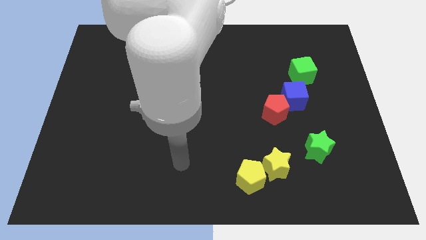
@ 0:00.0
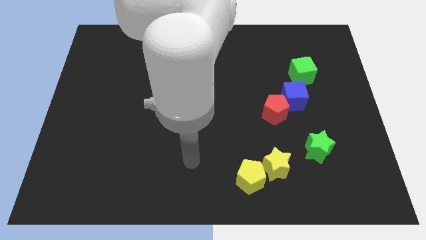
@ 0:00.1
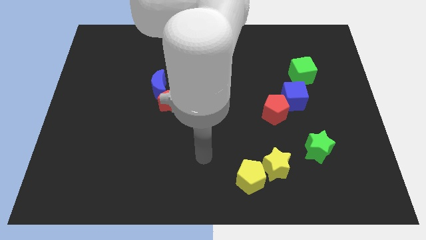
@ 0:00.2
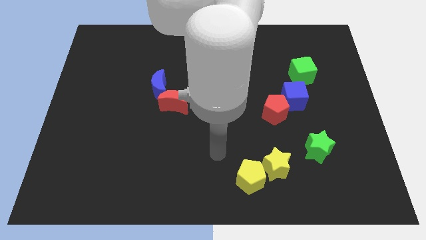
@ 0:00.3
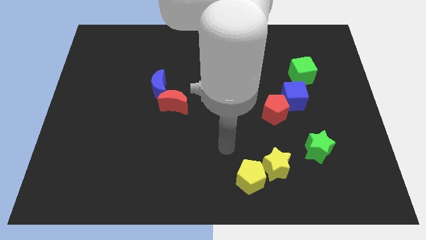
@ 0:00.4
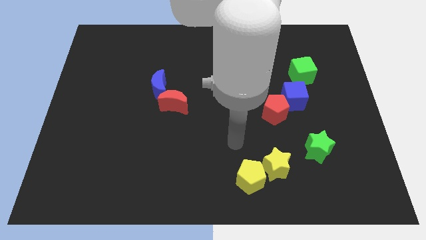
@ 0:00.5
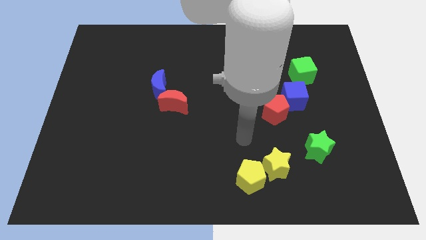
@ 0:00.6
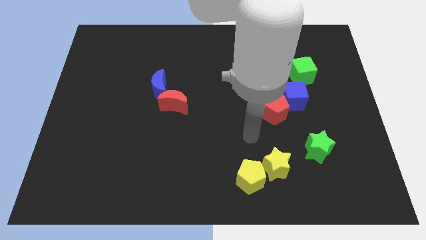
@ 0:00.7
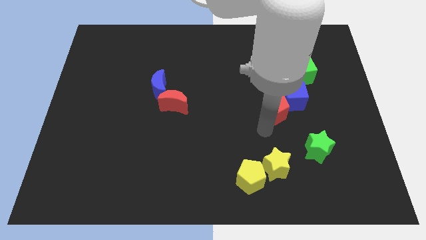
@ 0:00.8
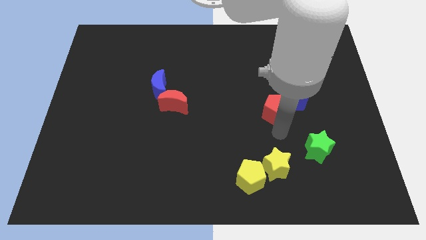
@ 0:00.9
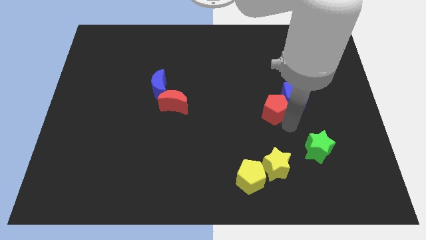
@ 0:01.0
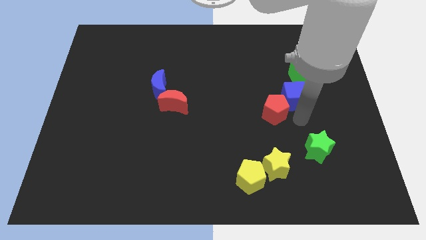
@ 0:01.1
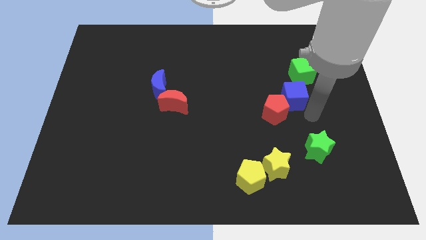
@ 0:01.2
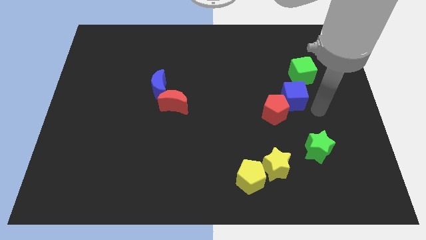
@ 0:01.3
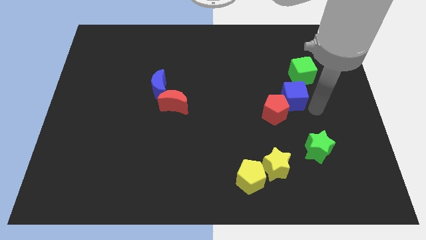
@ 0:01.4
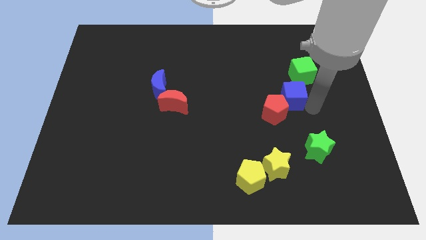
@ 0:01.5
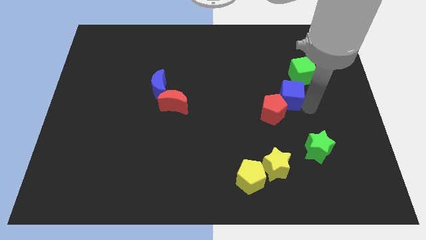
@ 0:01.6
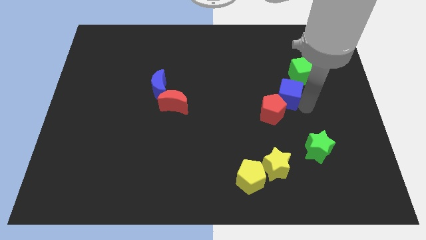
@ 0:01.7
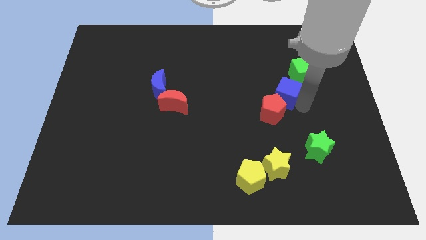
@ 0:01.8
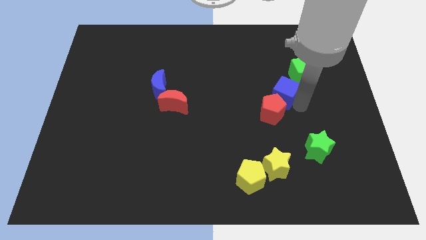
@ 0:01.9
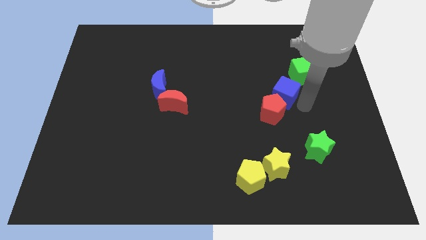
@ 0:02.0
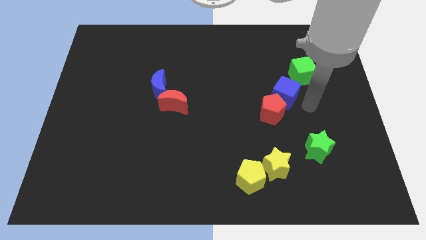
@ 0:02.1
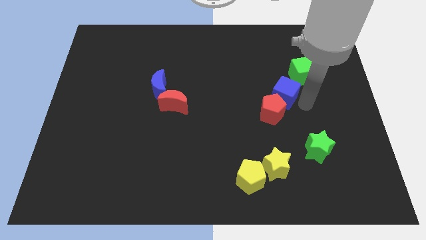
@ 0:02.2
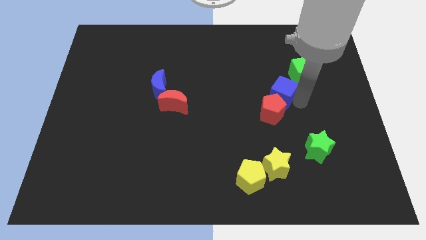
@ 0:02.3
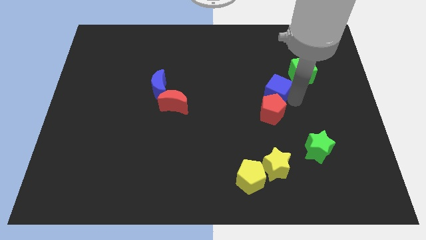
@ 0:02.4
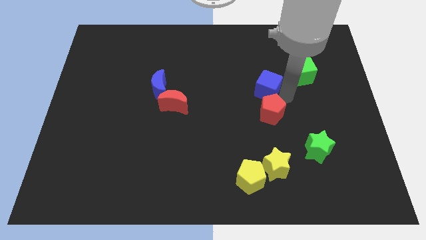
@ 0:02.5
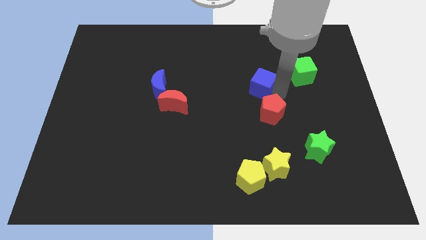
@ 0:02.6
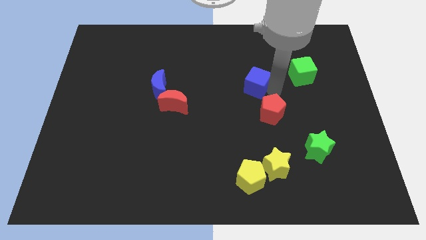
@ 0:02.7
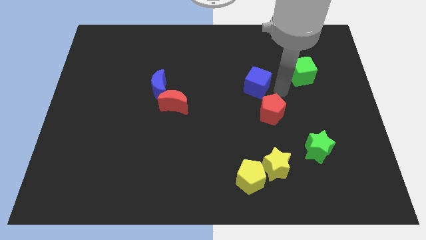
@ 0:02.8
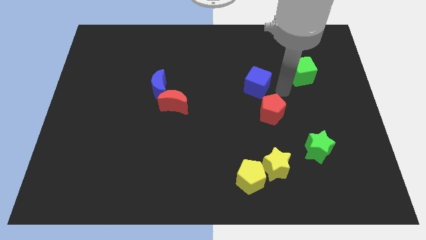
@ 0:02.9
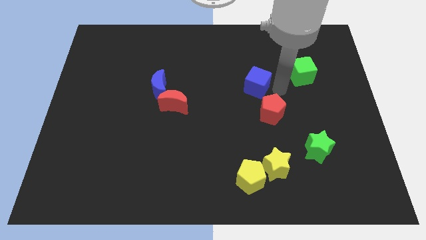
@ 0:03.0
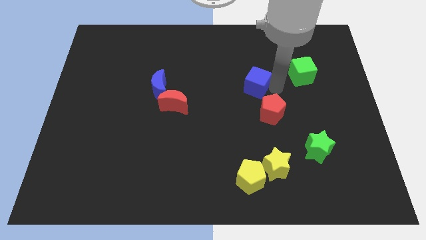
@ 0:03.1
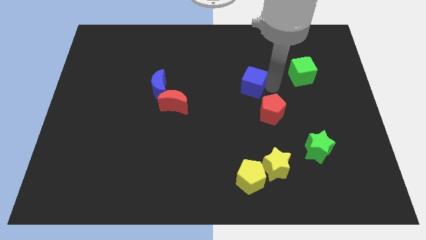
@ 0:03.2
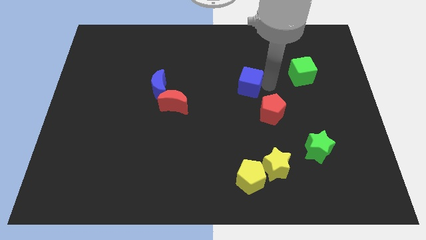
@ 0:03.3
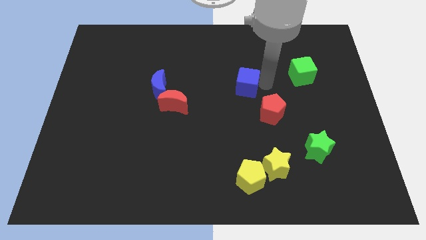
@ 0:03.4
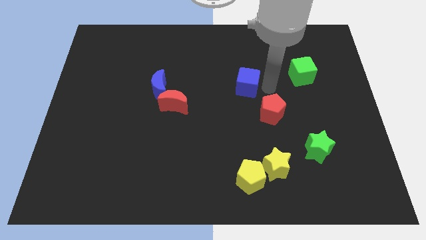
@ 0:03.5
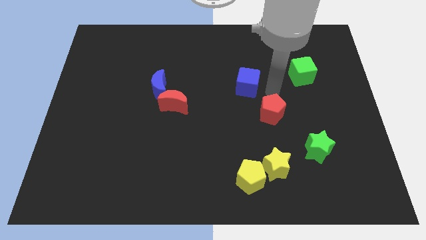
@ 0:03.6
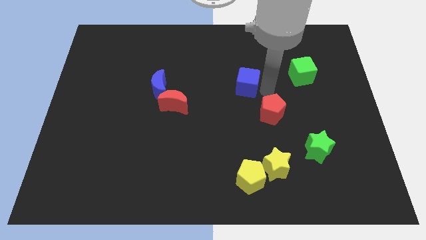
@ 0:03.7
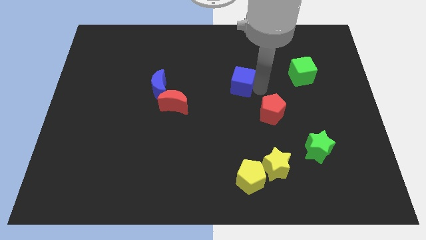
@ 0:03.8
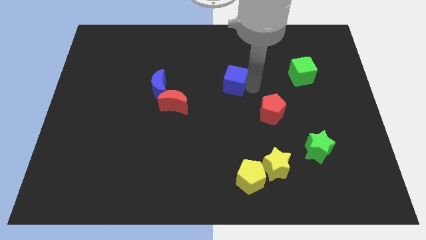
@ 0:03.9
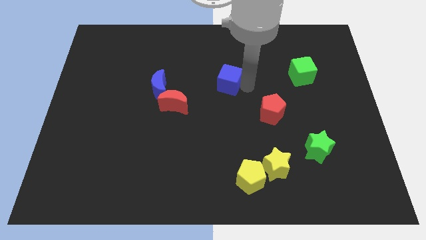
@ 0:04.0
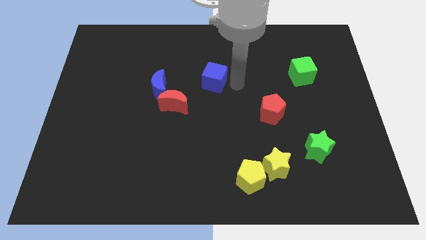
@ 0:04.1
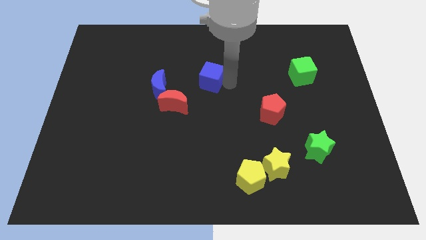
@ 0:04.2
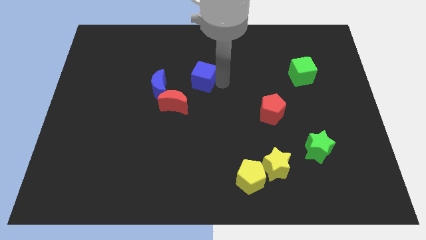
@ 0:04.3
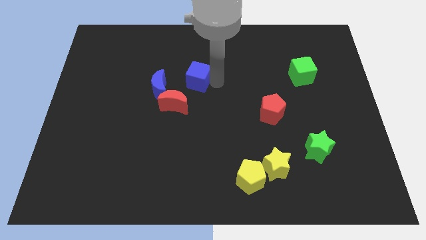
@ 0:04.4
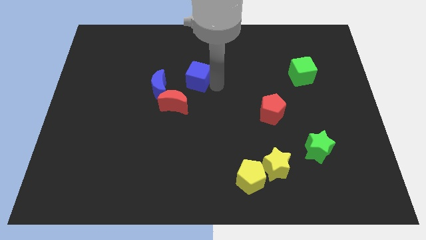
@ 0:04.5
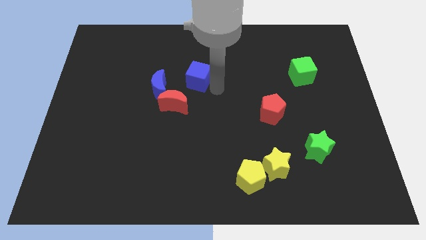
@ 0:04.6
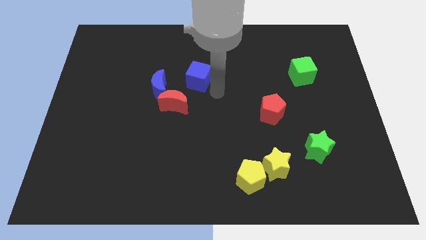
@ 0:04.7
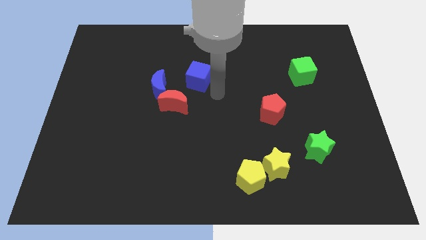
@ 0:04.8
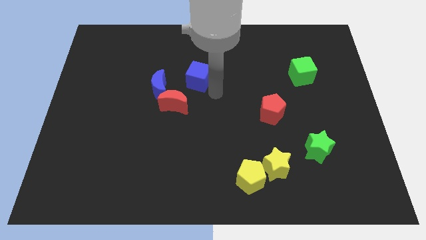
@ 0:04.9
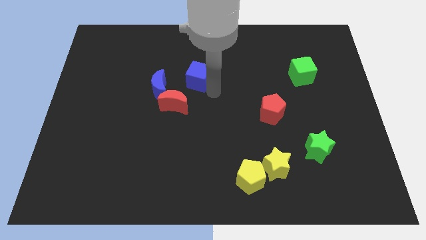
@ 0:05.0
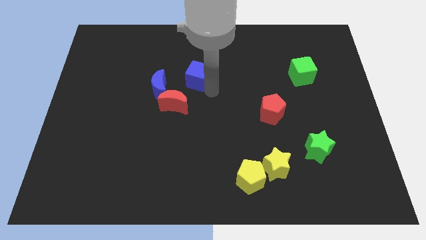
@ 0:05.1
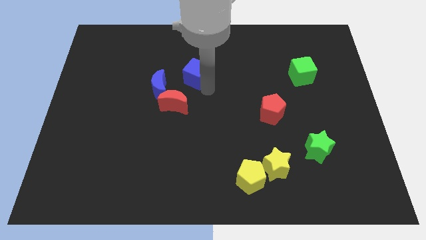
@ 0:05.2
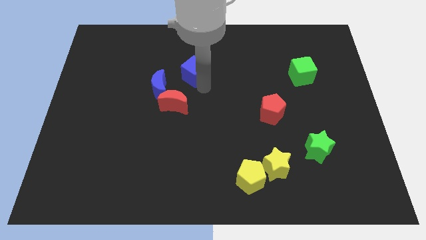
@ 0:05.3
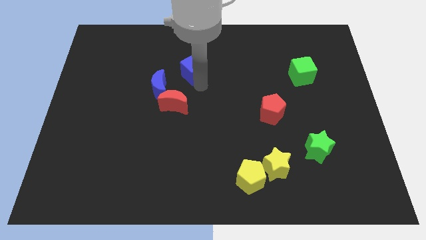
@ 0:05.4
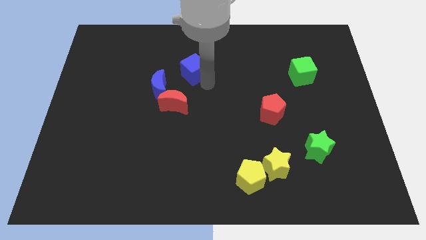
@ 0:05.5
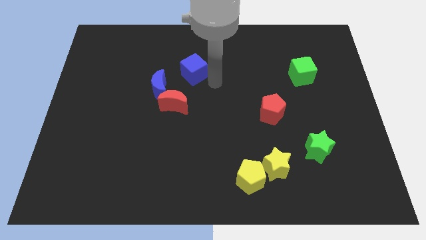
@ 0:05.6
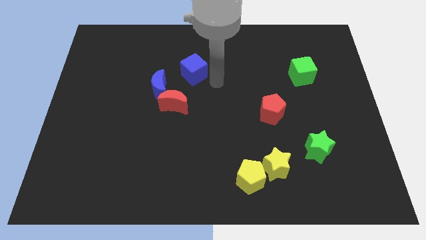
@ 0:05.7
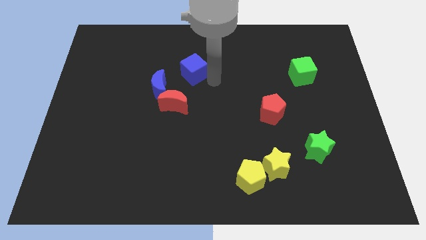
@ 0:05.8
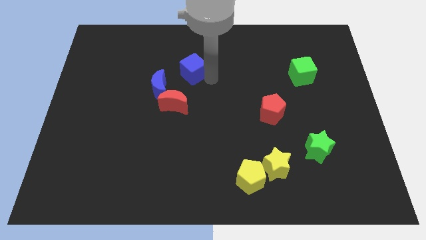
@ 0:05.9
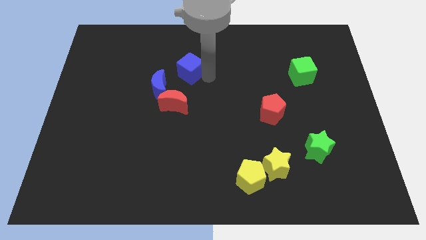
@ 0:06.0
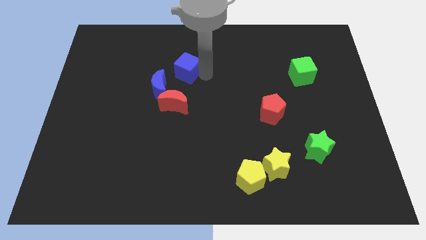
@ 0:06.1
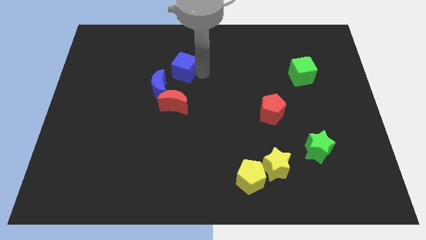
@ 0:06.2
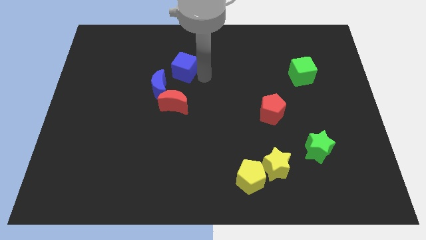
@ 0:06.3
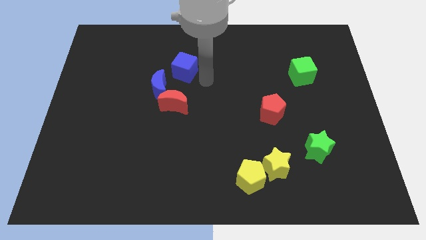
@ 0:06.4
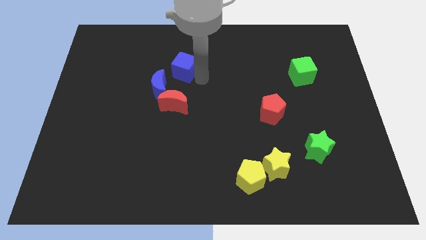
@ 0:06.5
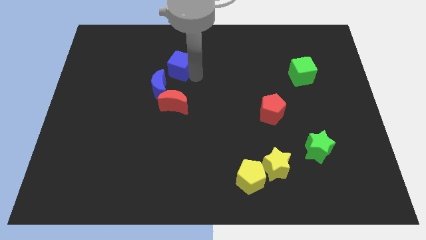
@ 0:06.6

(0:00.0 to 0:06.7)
push the blue cube above the blue moon

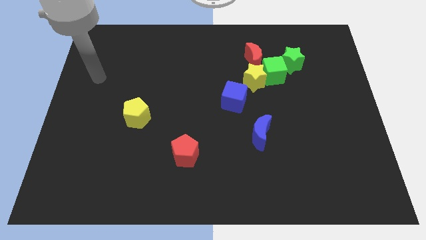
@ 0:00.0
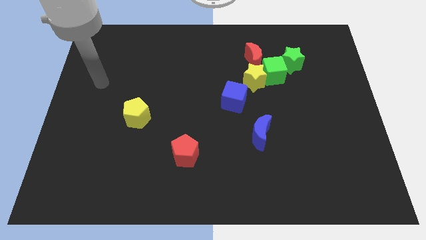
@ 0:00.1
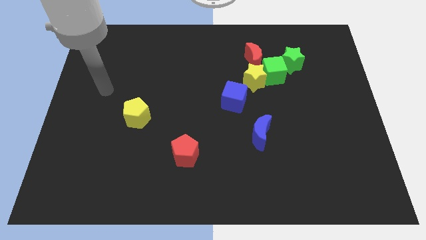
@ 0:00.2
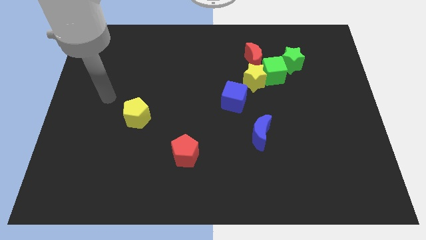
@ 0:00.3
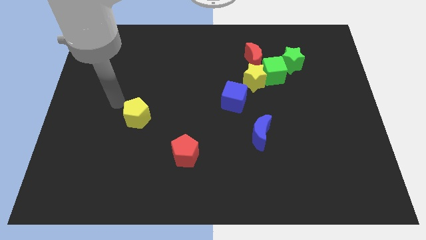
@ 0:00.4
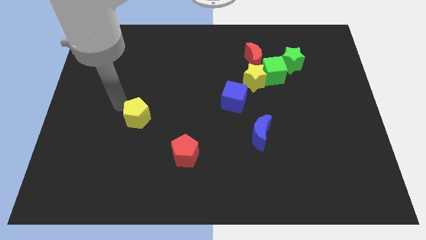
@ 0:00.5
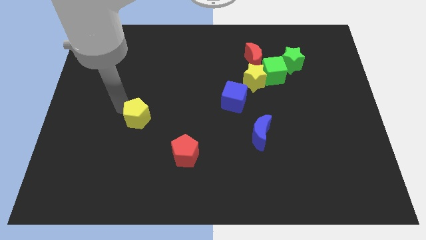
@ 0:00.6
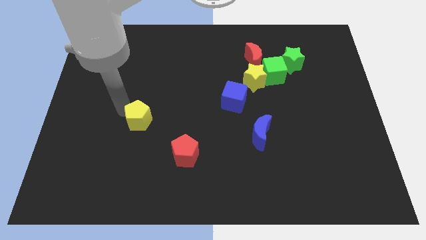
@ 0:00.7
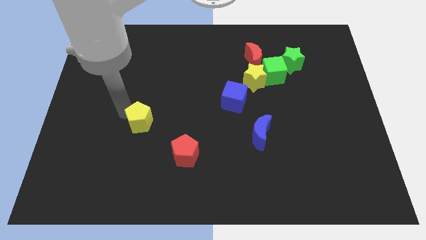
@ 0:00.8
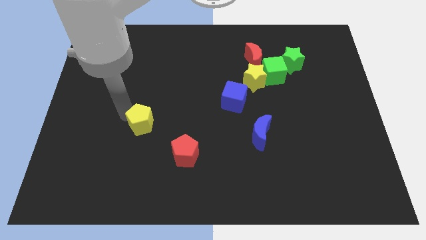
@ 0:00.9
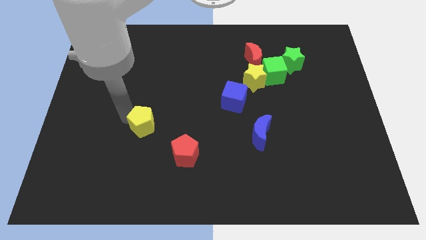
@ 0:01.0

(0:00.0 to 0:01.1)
push the yellow pentagon to the top left side of the red pentagon
